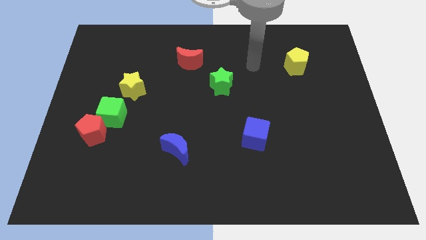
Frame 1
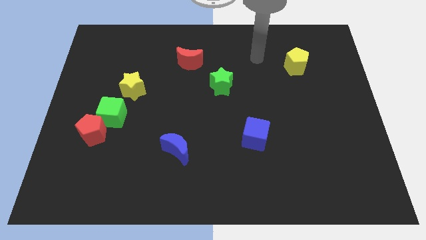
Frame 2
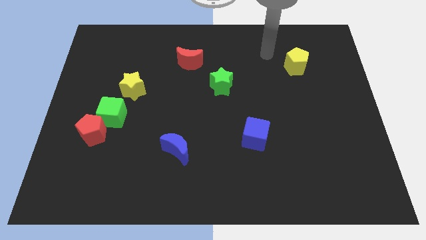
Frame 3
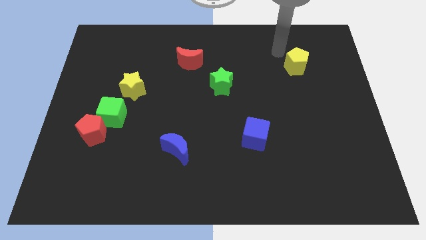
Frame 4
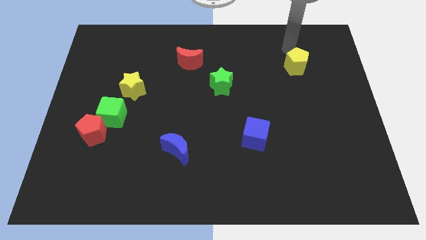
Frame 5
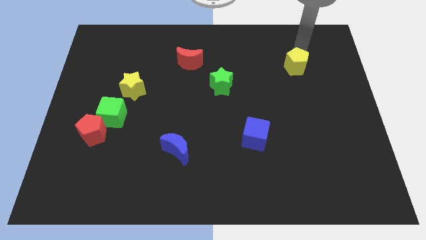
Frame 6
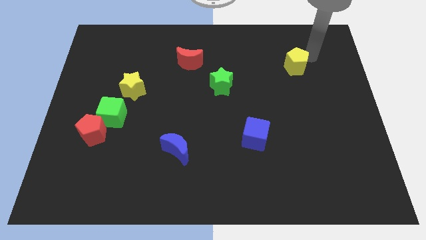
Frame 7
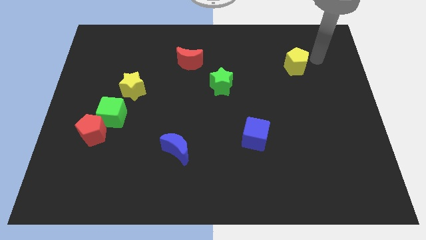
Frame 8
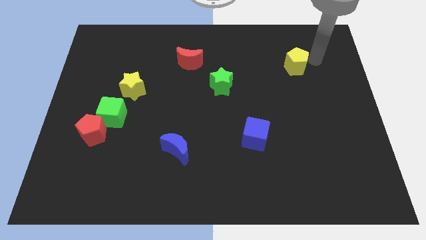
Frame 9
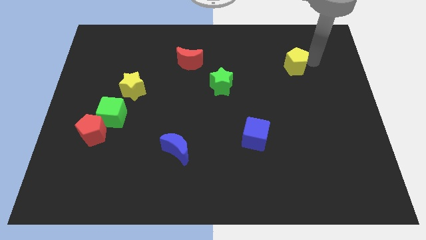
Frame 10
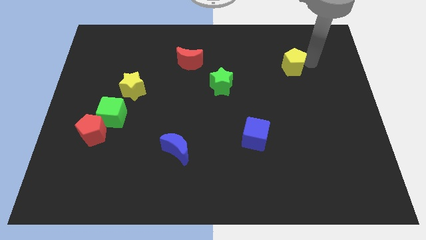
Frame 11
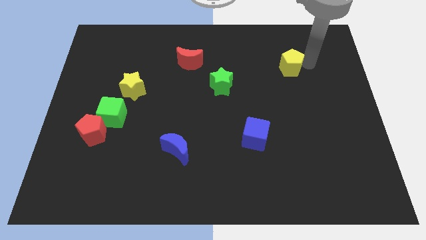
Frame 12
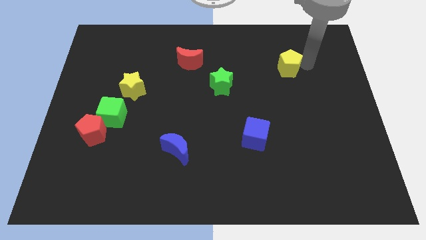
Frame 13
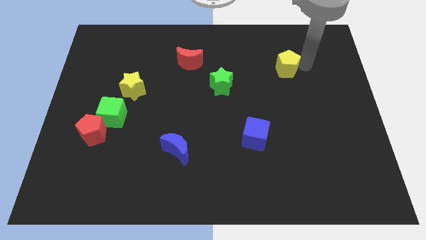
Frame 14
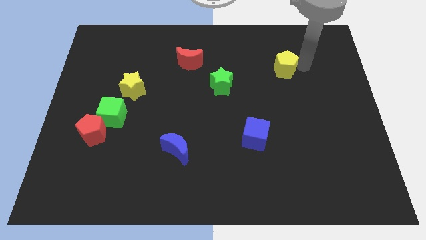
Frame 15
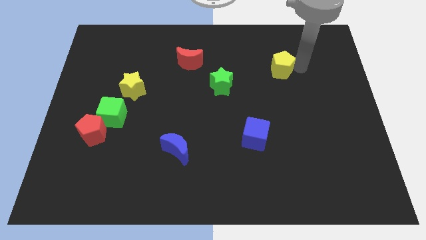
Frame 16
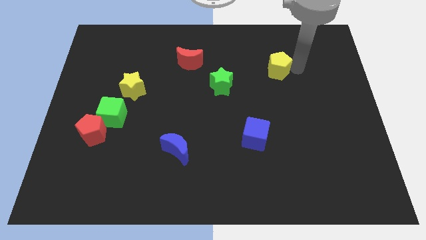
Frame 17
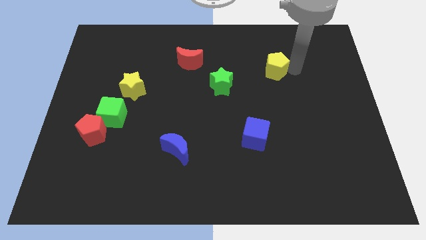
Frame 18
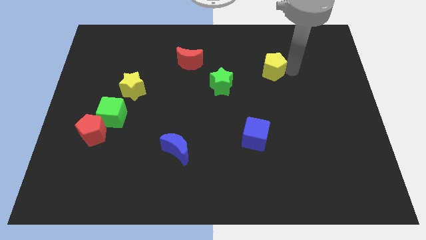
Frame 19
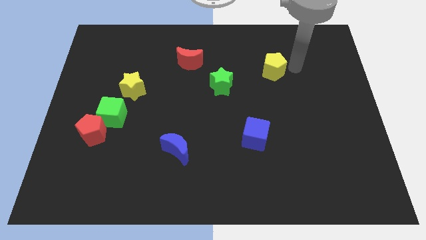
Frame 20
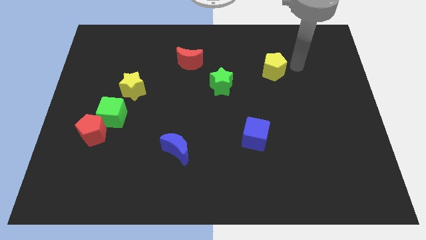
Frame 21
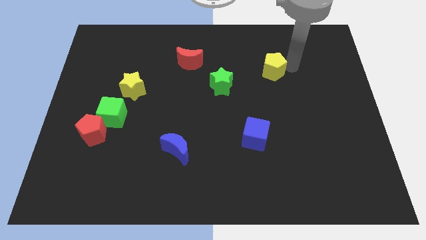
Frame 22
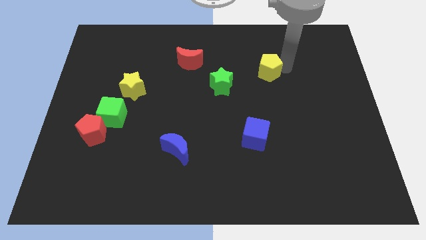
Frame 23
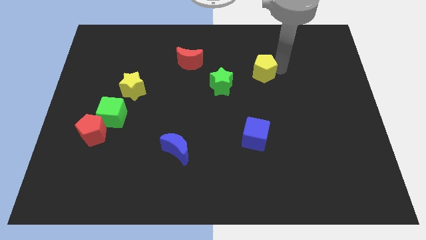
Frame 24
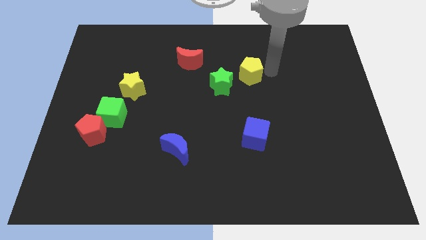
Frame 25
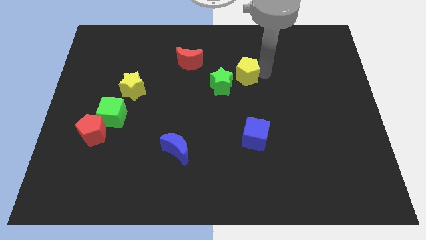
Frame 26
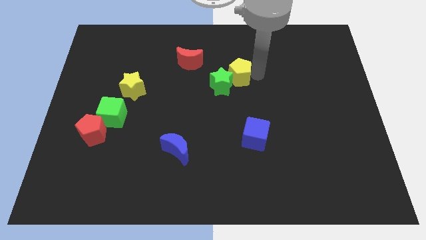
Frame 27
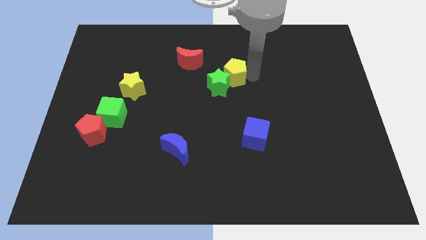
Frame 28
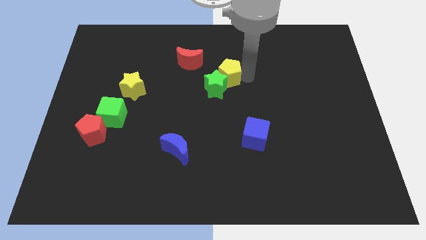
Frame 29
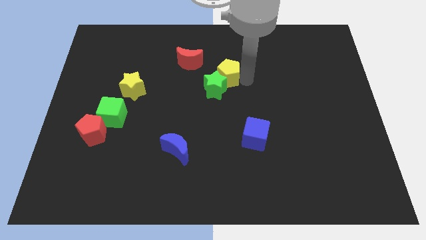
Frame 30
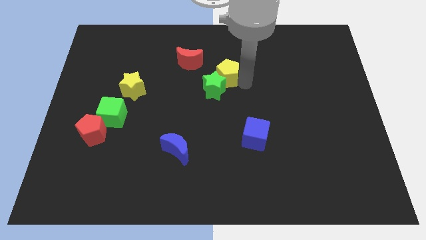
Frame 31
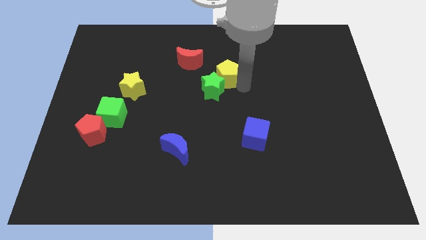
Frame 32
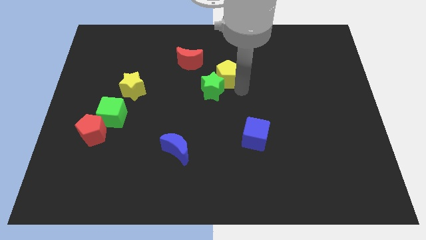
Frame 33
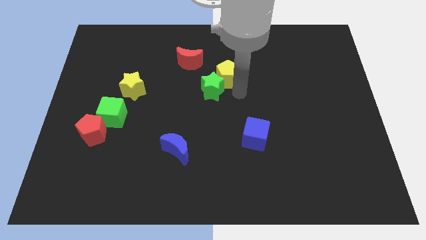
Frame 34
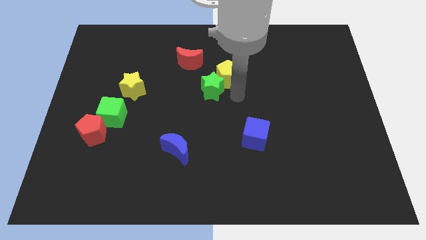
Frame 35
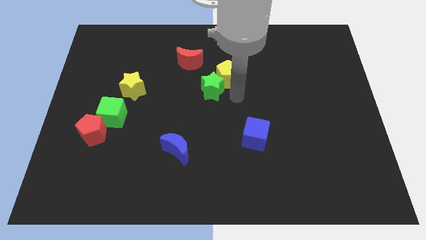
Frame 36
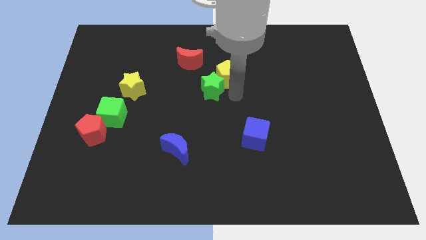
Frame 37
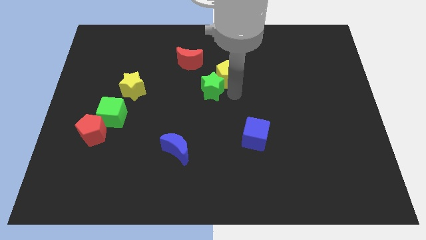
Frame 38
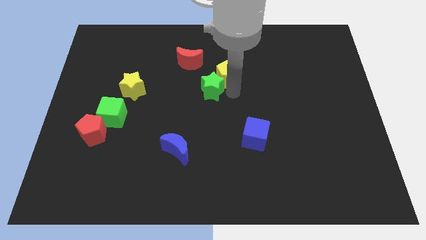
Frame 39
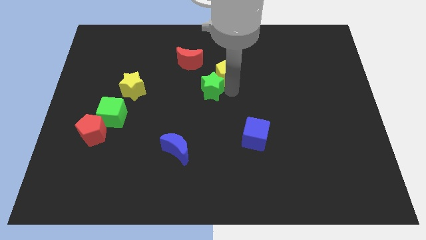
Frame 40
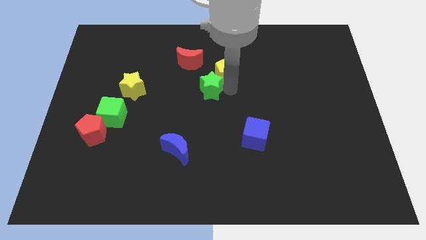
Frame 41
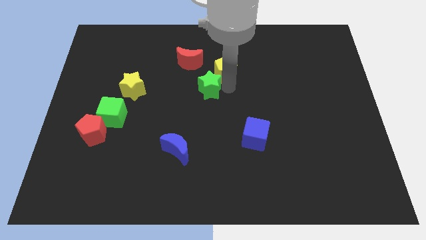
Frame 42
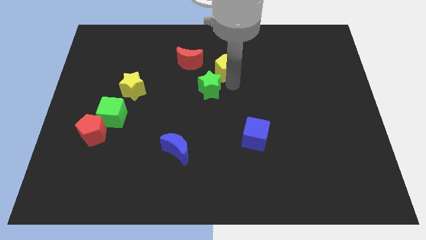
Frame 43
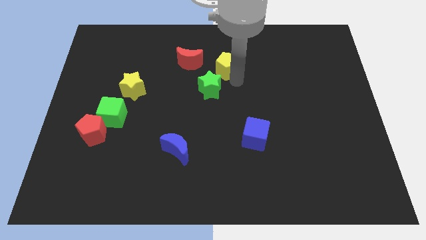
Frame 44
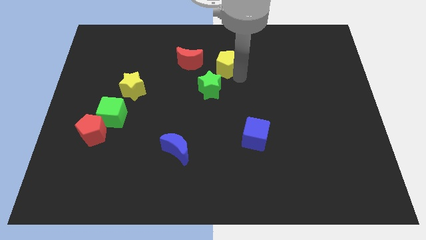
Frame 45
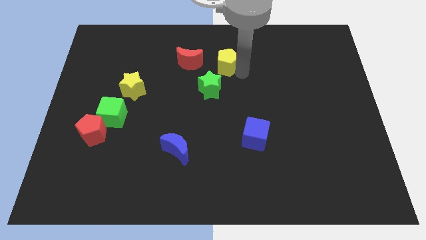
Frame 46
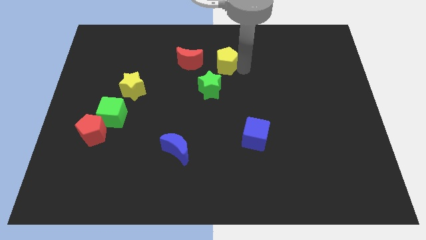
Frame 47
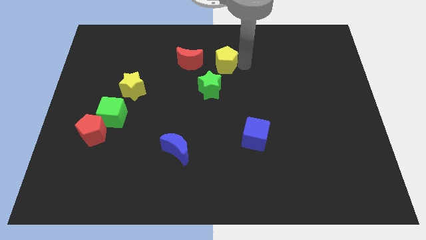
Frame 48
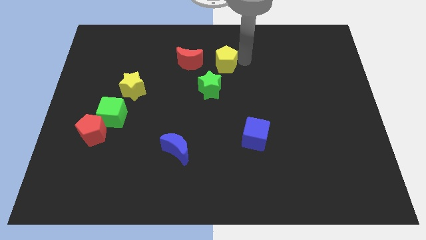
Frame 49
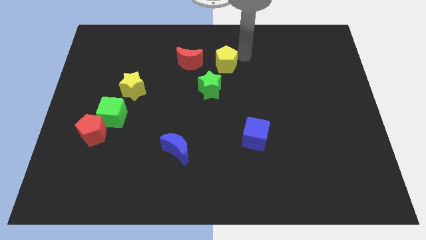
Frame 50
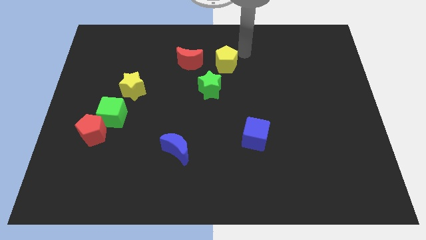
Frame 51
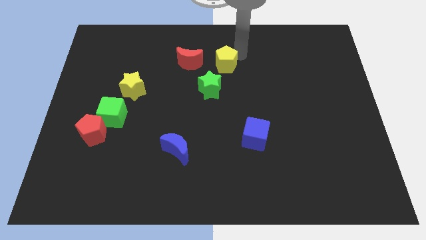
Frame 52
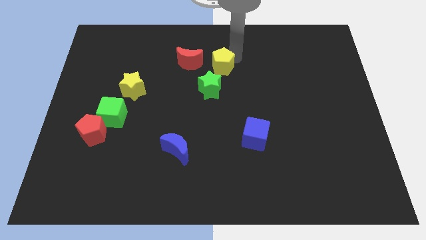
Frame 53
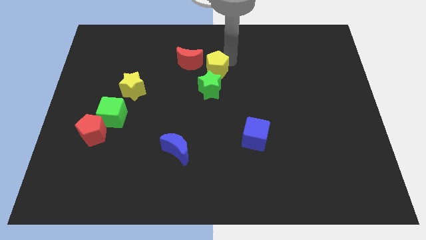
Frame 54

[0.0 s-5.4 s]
move the yellow pentagon to the left

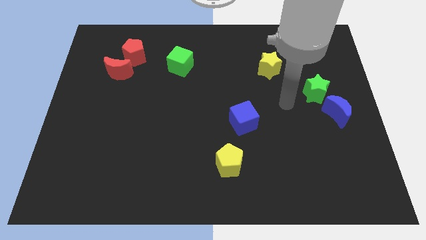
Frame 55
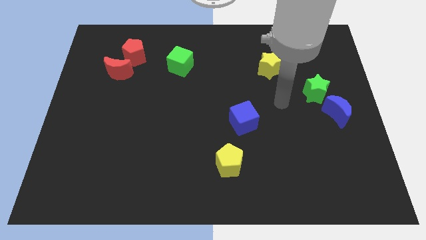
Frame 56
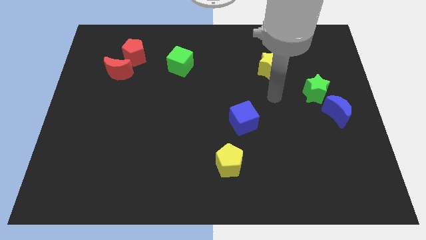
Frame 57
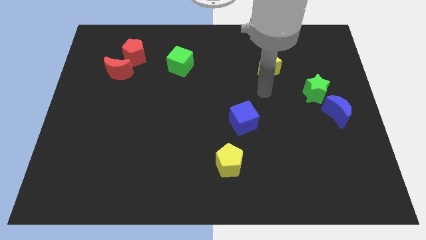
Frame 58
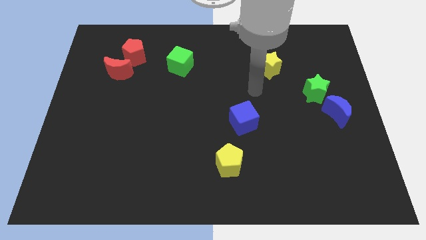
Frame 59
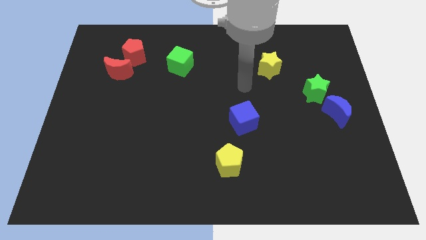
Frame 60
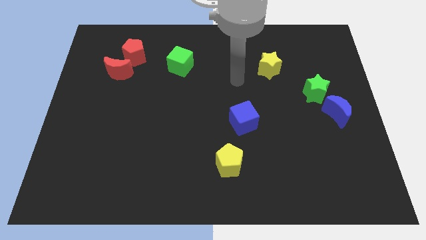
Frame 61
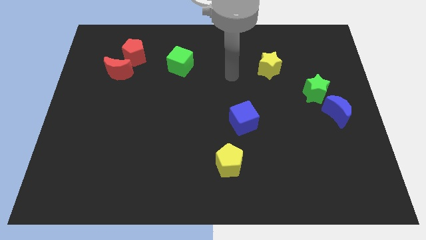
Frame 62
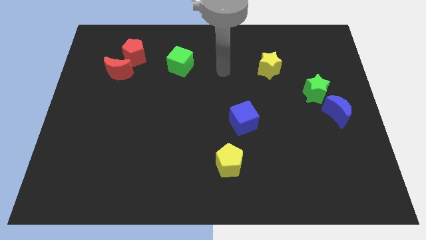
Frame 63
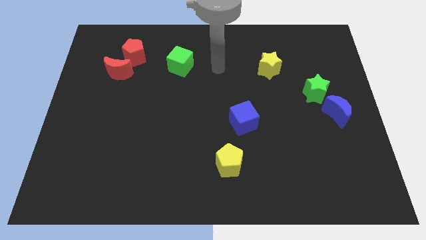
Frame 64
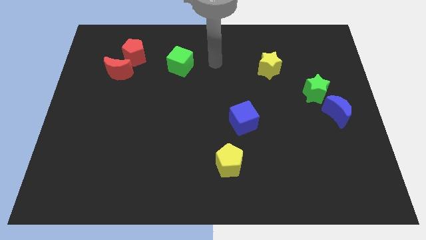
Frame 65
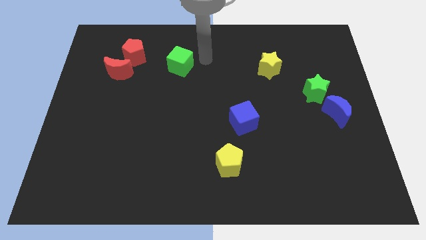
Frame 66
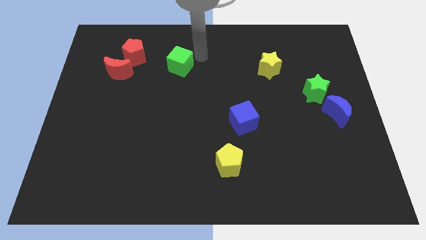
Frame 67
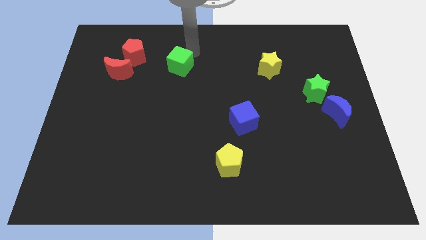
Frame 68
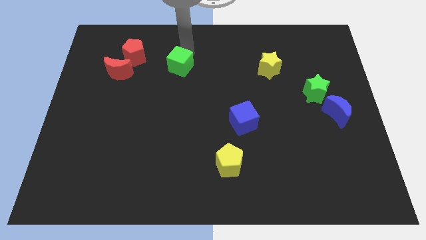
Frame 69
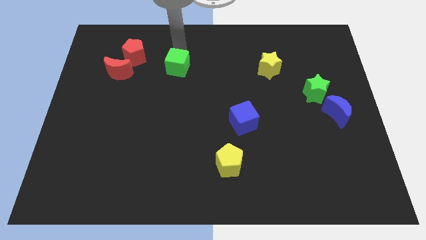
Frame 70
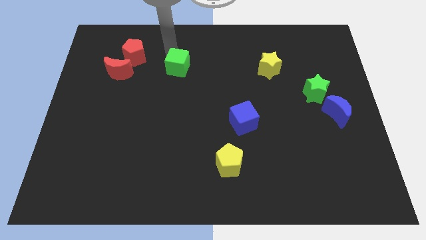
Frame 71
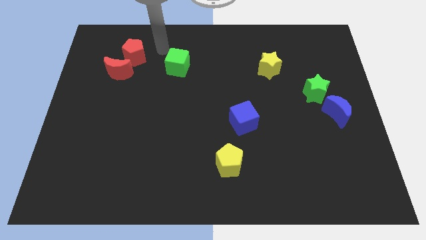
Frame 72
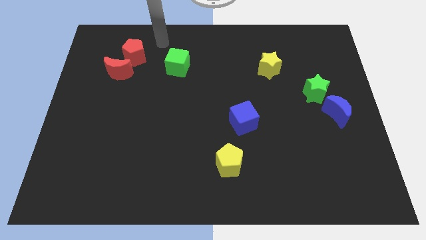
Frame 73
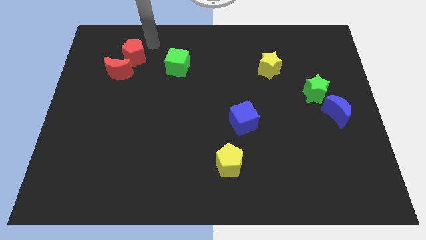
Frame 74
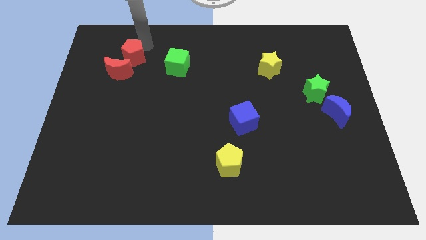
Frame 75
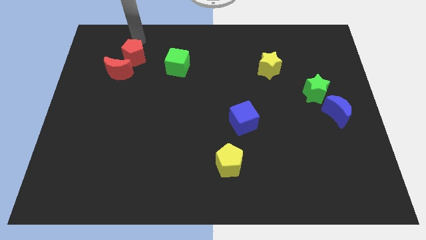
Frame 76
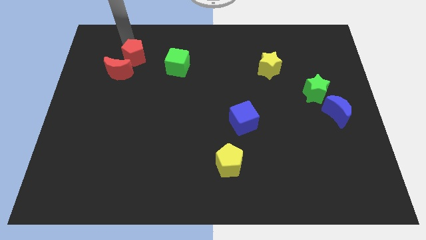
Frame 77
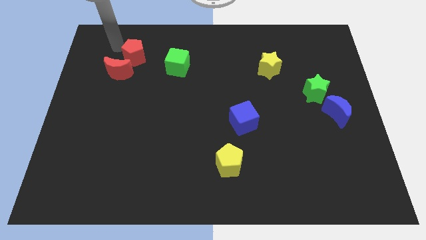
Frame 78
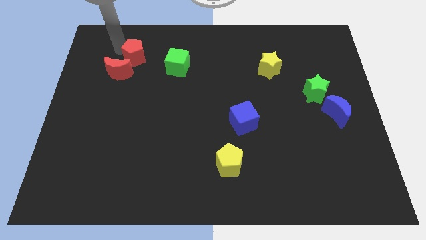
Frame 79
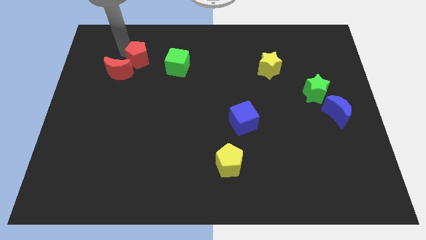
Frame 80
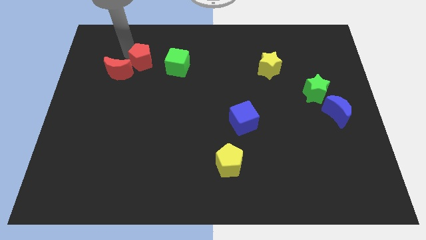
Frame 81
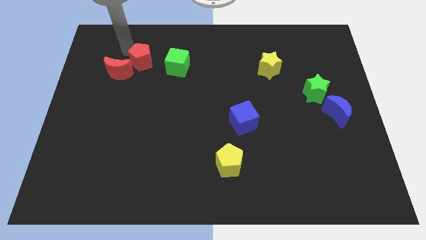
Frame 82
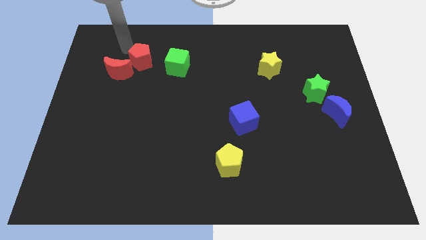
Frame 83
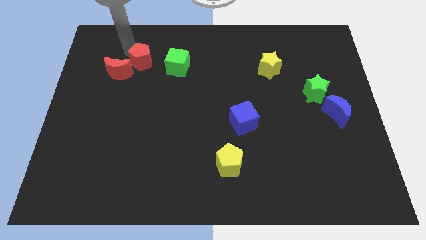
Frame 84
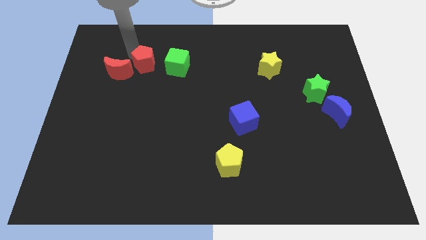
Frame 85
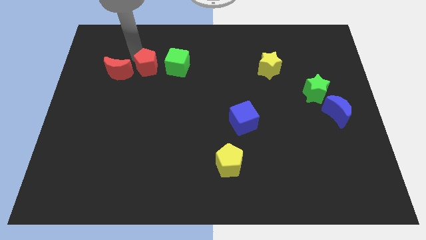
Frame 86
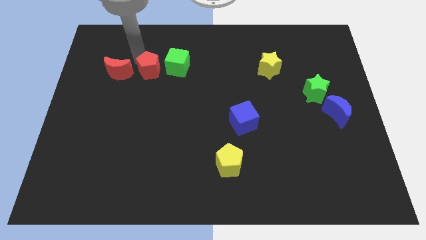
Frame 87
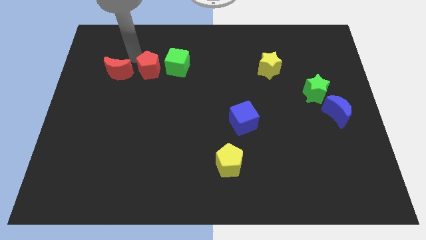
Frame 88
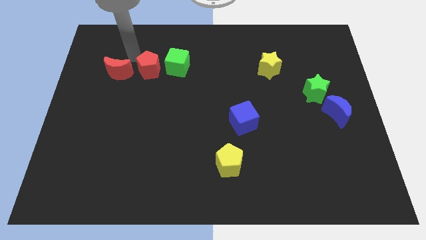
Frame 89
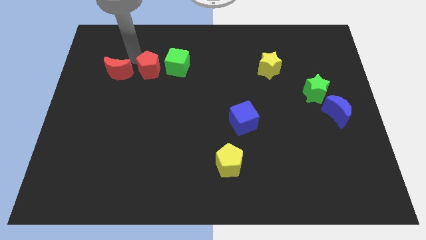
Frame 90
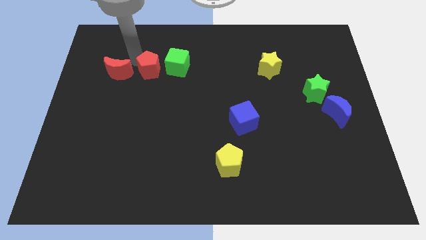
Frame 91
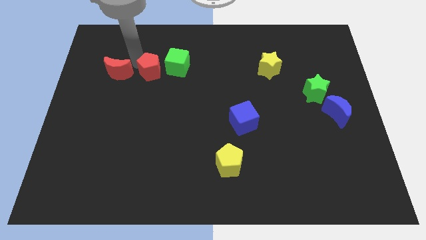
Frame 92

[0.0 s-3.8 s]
move the red pentagon down and to the right a little
